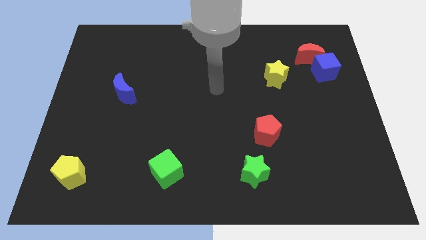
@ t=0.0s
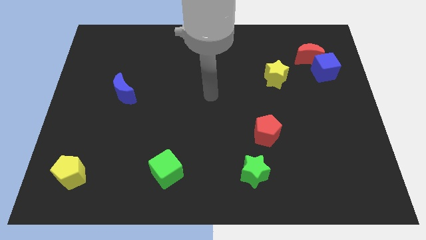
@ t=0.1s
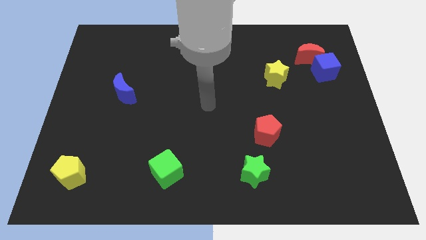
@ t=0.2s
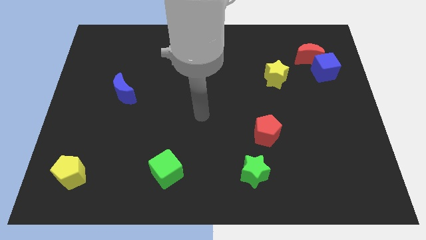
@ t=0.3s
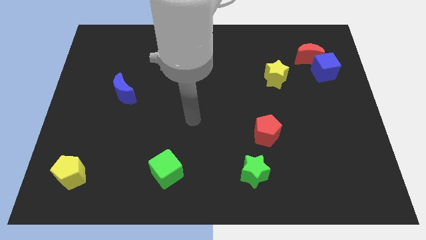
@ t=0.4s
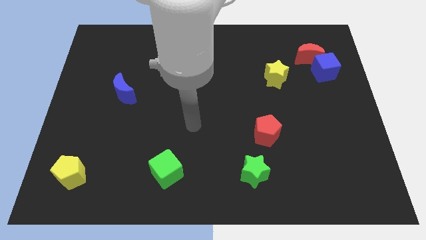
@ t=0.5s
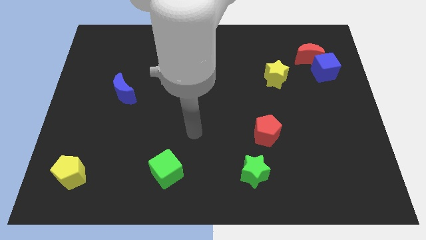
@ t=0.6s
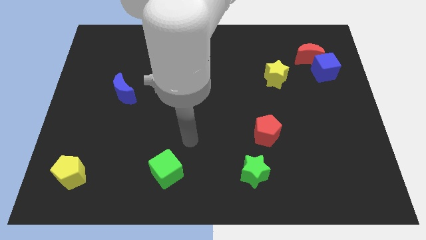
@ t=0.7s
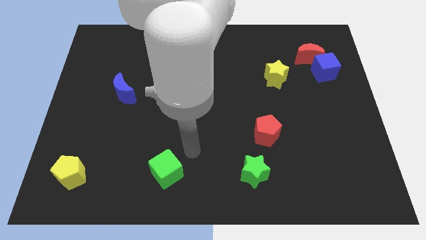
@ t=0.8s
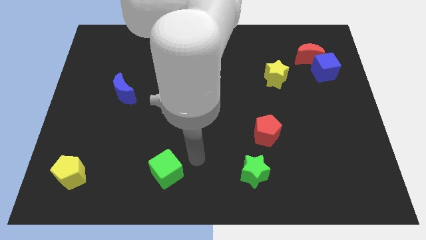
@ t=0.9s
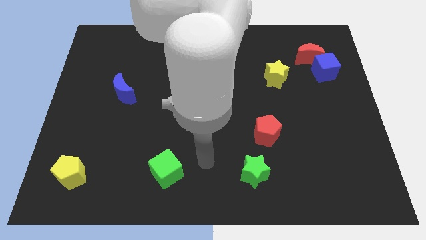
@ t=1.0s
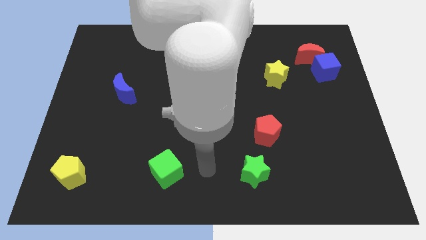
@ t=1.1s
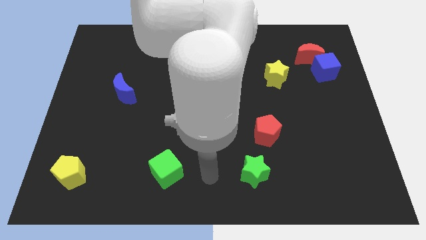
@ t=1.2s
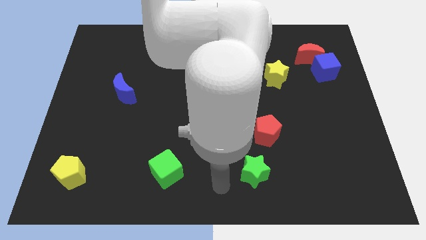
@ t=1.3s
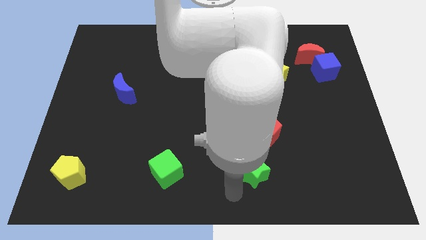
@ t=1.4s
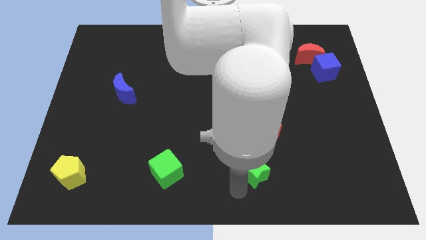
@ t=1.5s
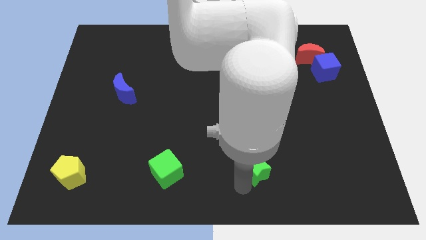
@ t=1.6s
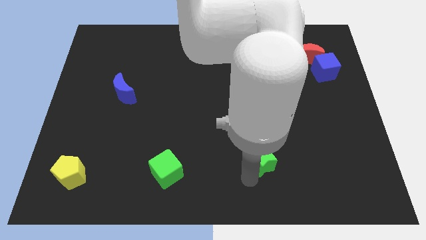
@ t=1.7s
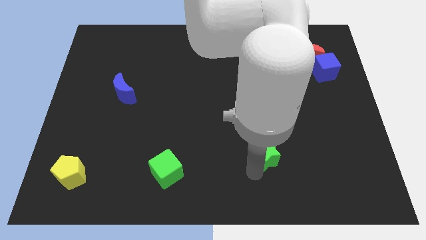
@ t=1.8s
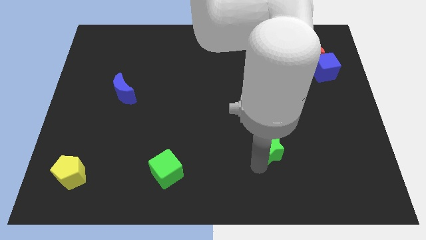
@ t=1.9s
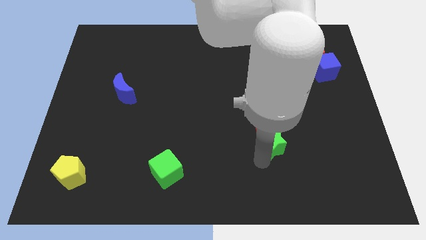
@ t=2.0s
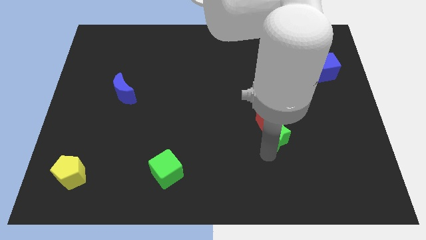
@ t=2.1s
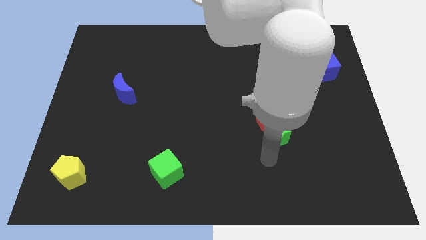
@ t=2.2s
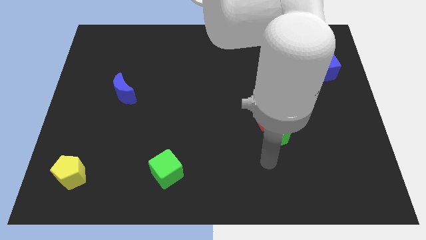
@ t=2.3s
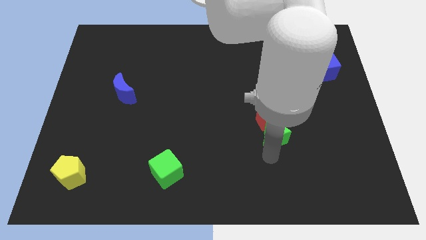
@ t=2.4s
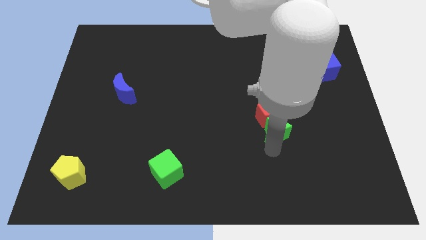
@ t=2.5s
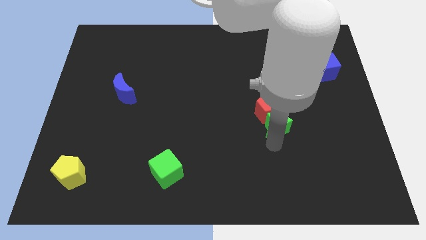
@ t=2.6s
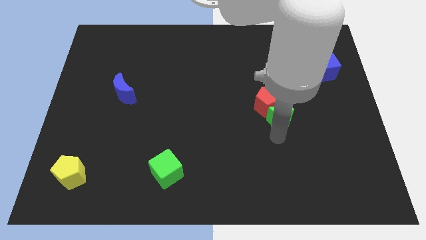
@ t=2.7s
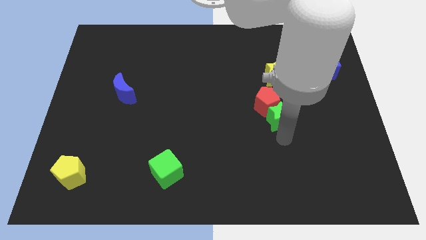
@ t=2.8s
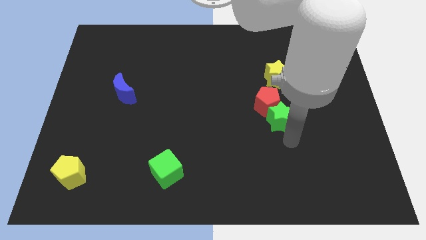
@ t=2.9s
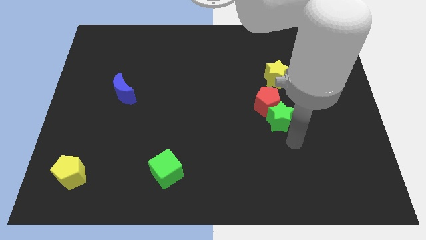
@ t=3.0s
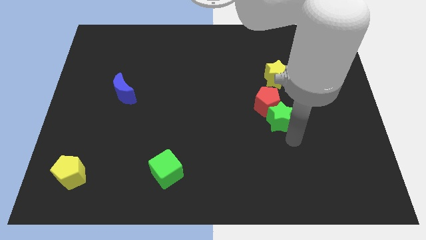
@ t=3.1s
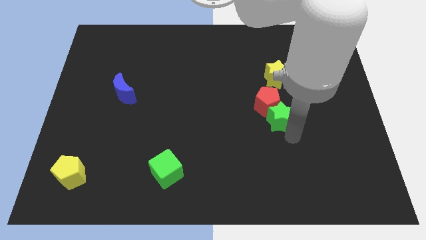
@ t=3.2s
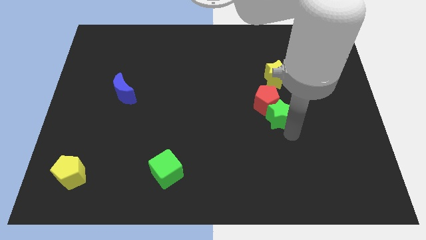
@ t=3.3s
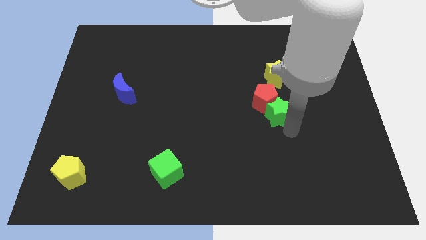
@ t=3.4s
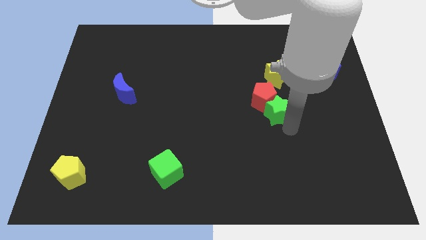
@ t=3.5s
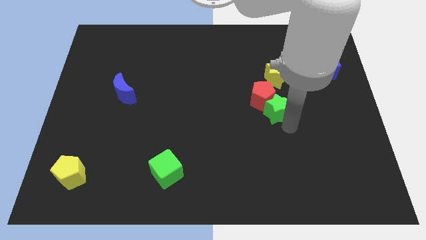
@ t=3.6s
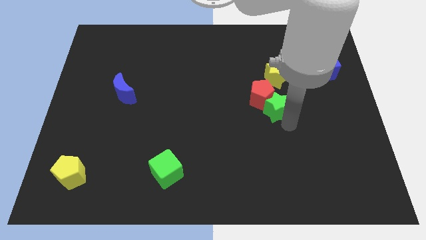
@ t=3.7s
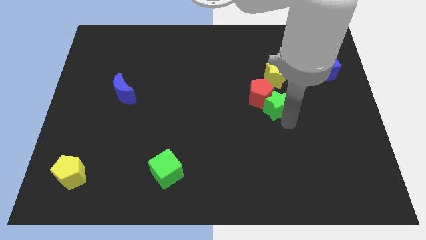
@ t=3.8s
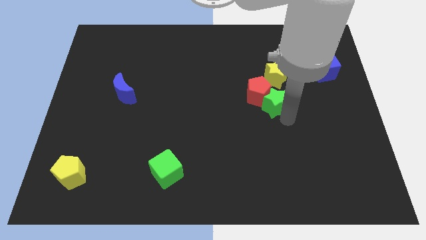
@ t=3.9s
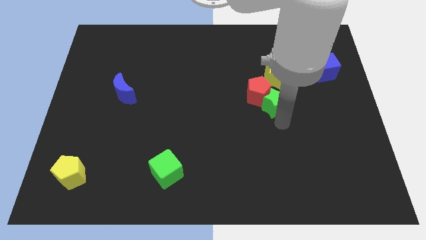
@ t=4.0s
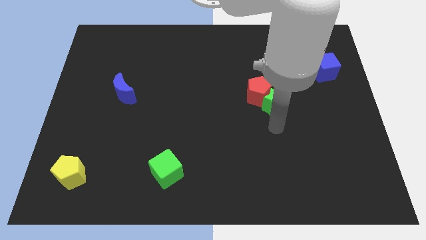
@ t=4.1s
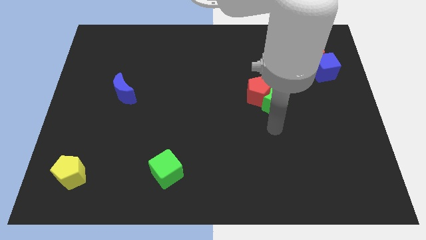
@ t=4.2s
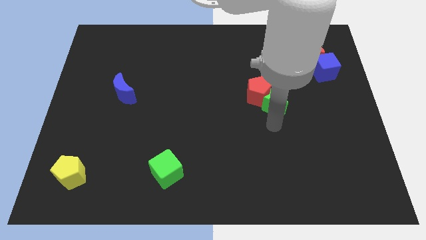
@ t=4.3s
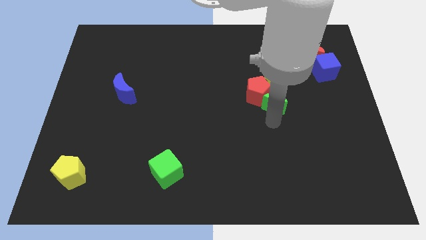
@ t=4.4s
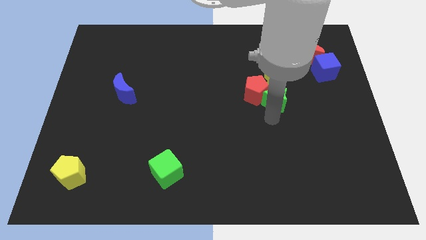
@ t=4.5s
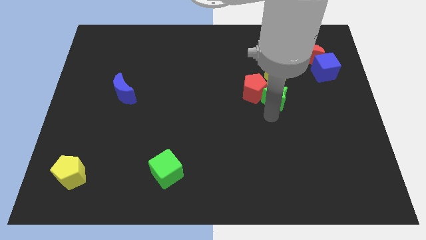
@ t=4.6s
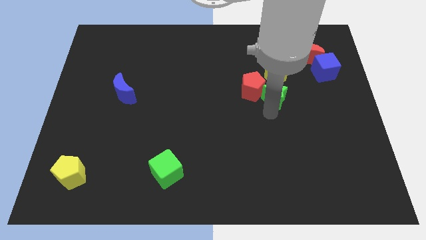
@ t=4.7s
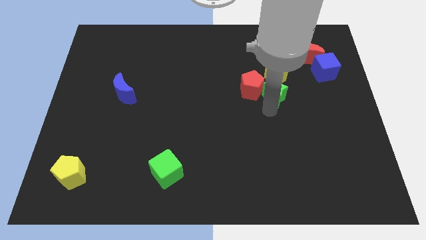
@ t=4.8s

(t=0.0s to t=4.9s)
slide the green star to the yellow star

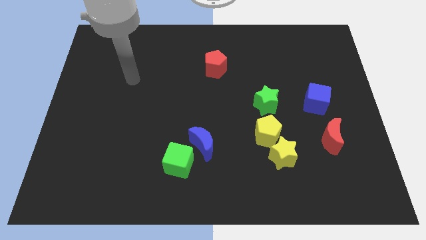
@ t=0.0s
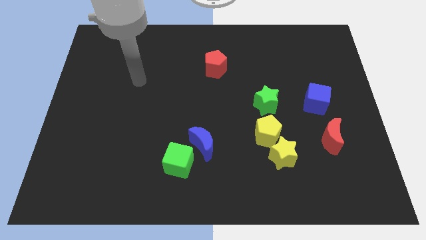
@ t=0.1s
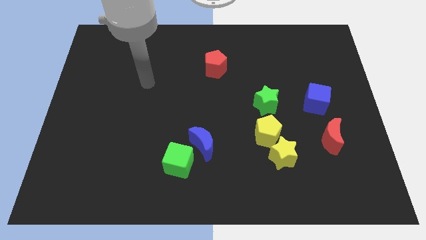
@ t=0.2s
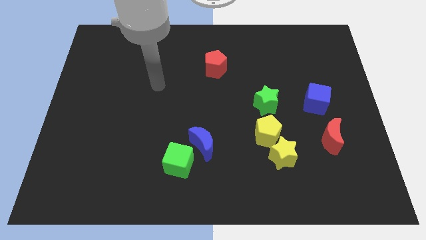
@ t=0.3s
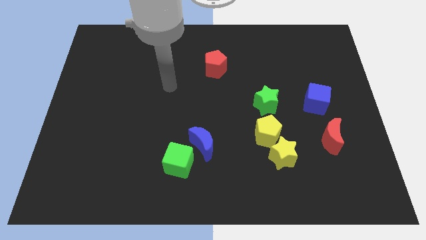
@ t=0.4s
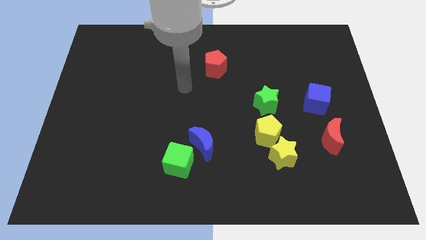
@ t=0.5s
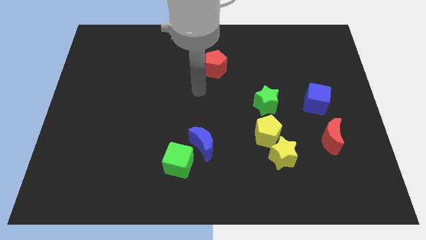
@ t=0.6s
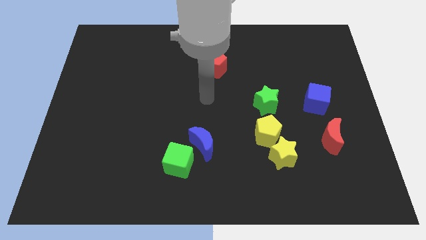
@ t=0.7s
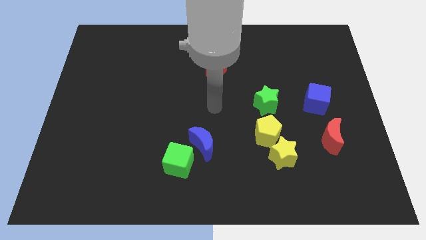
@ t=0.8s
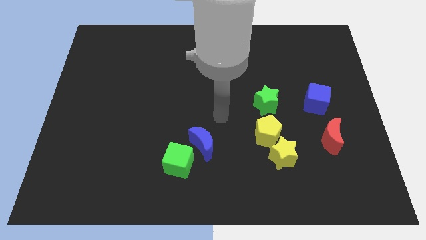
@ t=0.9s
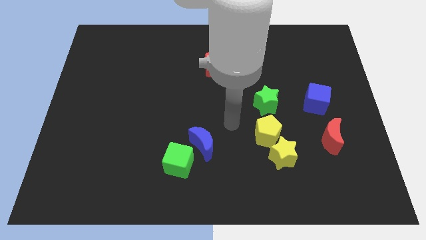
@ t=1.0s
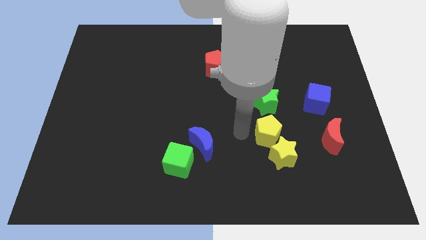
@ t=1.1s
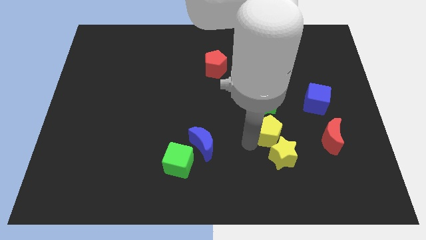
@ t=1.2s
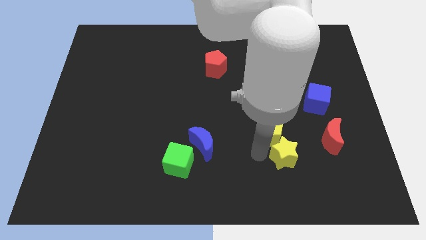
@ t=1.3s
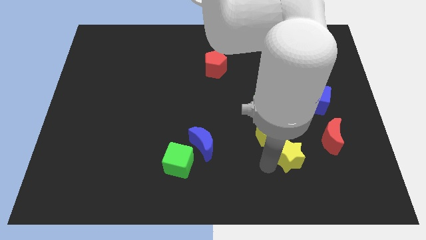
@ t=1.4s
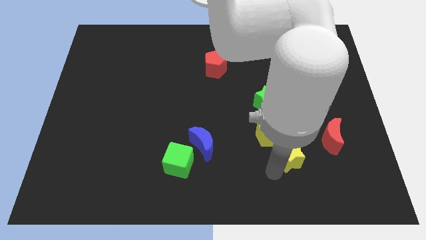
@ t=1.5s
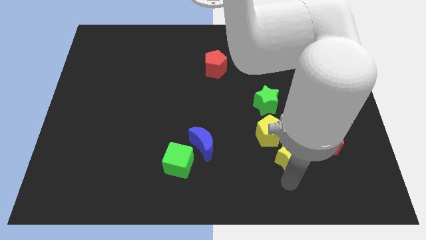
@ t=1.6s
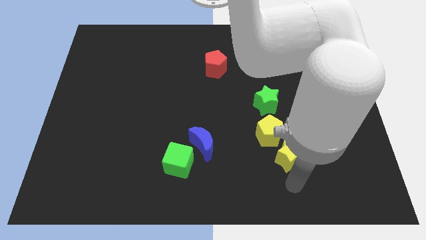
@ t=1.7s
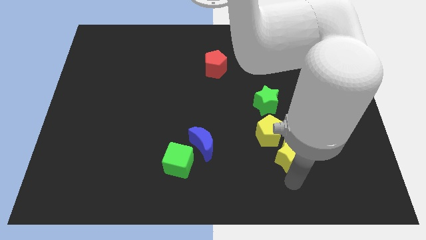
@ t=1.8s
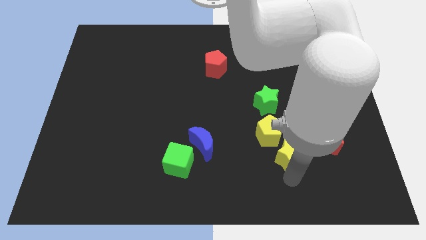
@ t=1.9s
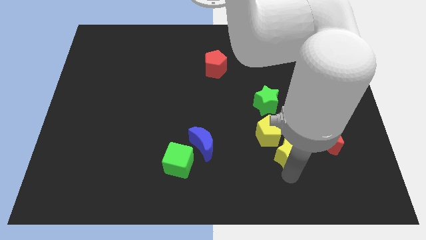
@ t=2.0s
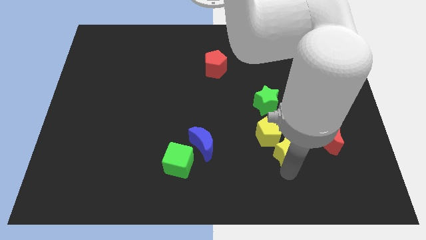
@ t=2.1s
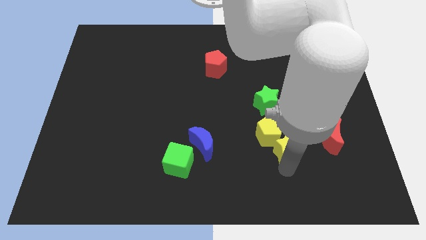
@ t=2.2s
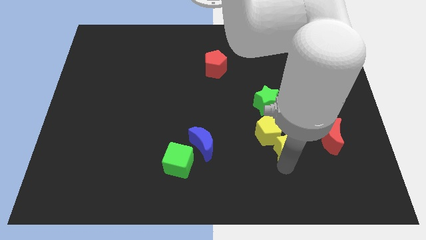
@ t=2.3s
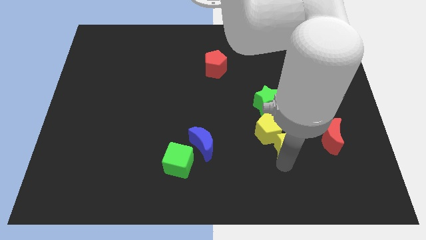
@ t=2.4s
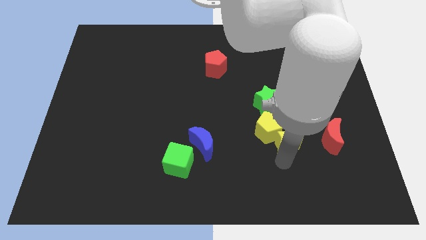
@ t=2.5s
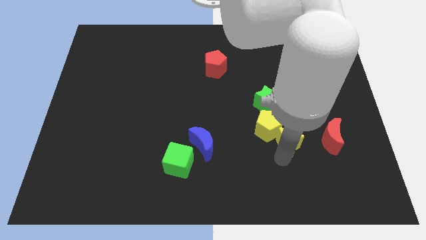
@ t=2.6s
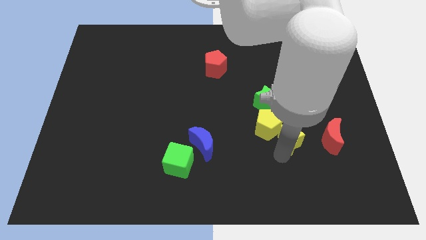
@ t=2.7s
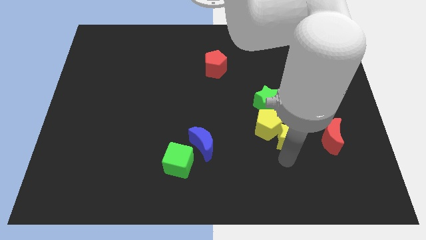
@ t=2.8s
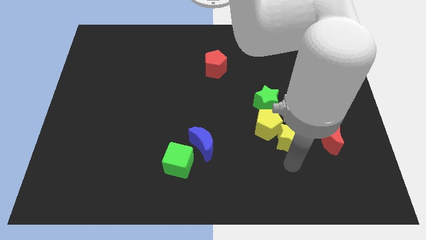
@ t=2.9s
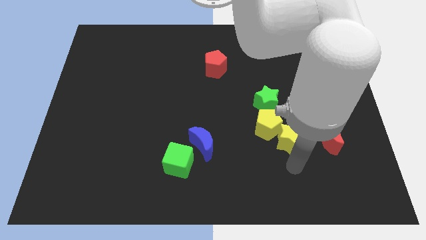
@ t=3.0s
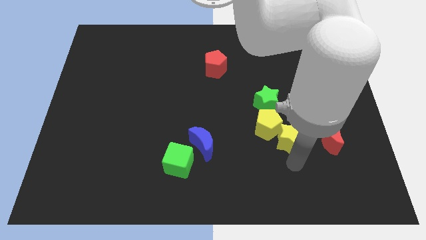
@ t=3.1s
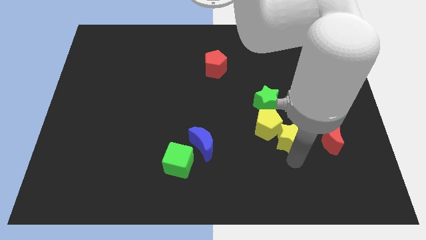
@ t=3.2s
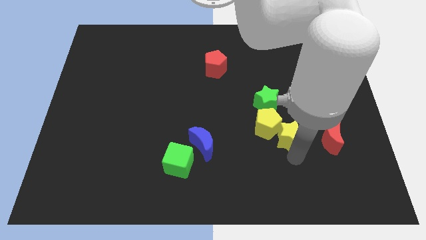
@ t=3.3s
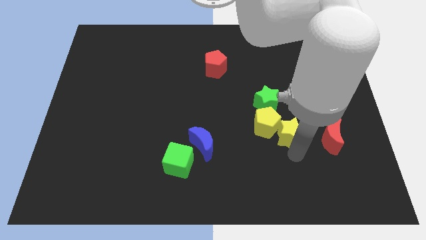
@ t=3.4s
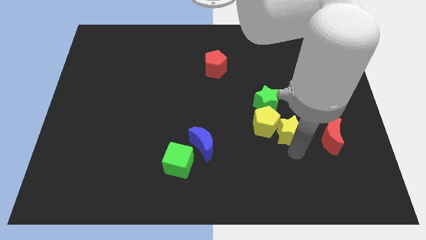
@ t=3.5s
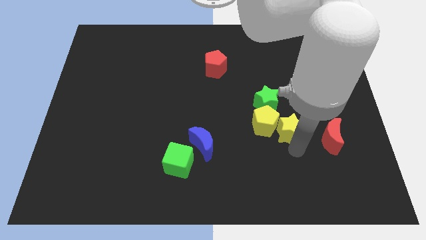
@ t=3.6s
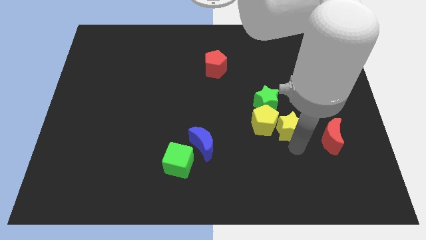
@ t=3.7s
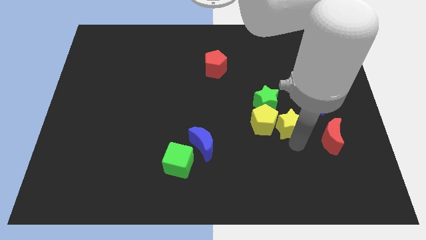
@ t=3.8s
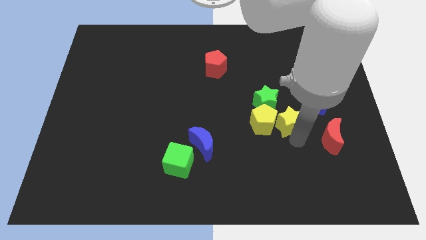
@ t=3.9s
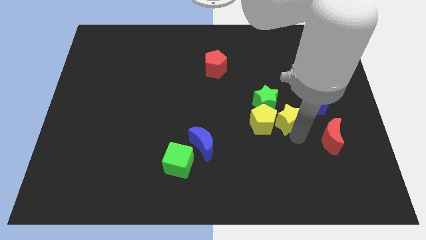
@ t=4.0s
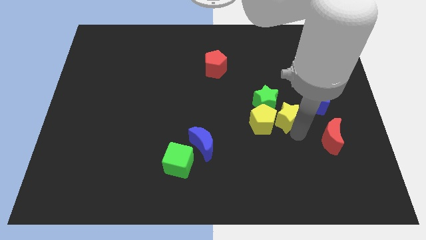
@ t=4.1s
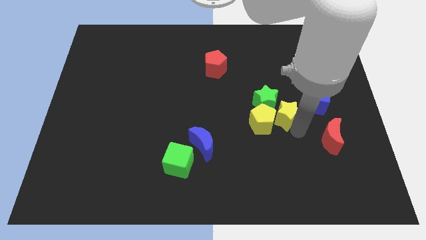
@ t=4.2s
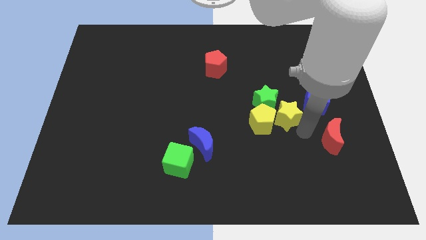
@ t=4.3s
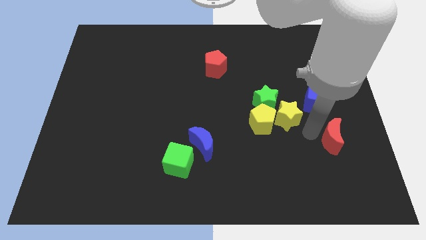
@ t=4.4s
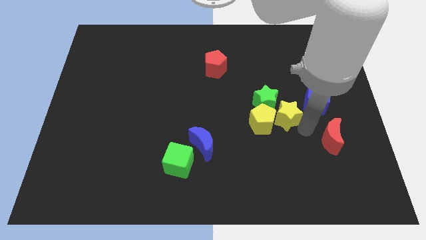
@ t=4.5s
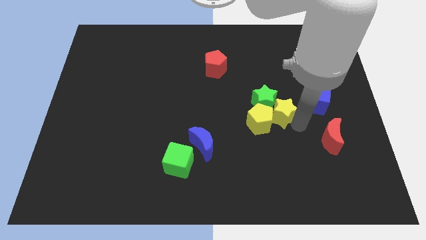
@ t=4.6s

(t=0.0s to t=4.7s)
push the yellow star close to the green star
